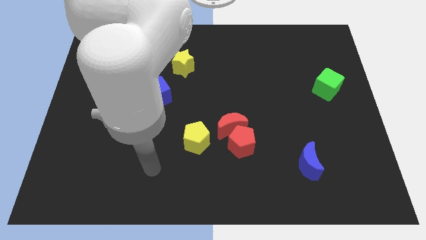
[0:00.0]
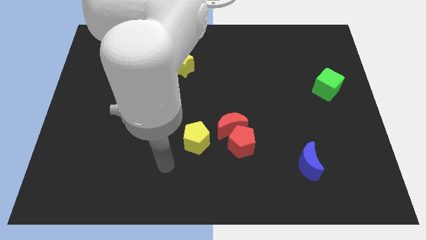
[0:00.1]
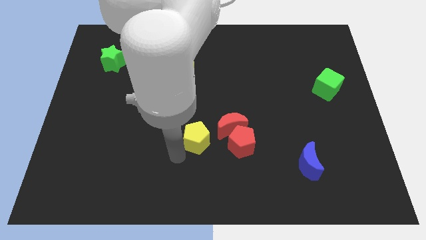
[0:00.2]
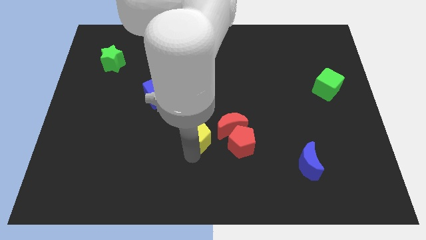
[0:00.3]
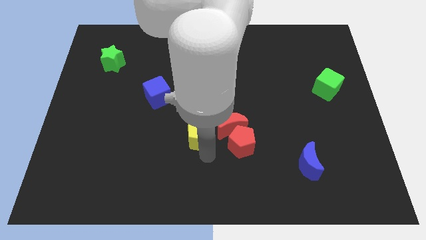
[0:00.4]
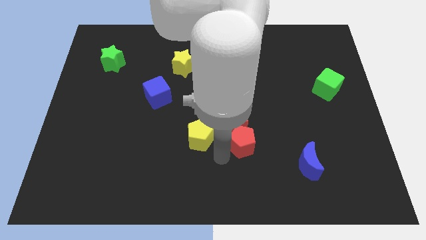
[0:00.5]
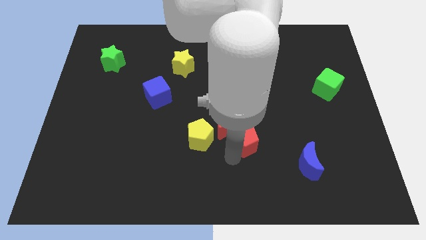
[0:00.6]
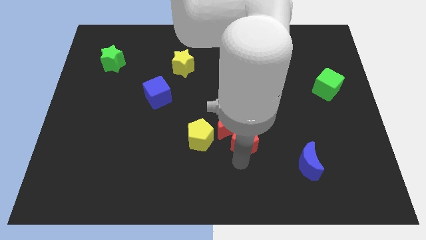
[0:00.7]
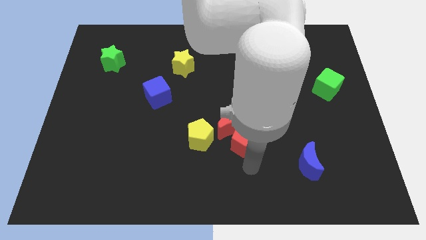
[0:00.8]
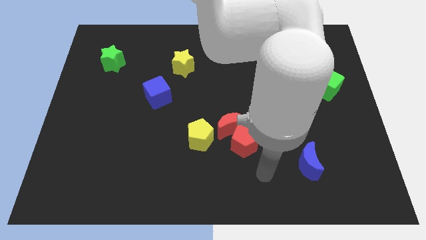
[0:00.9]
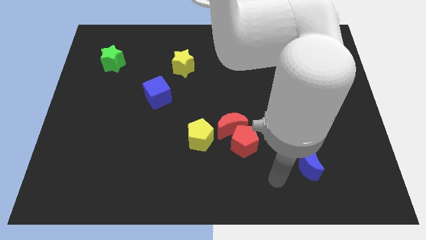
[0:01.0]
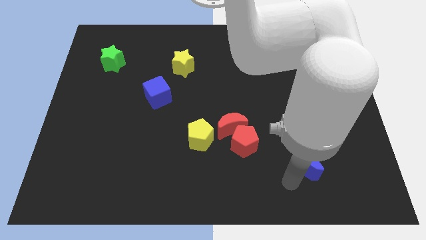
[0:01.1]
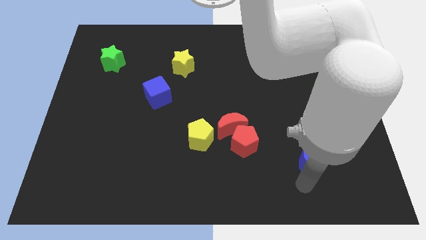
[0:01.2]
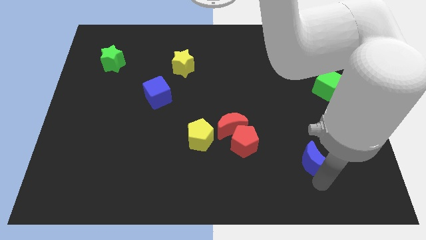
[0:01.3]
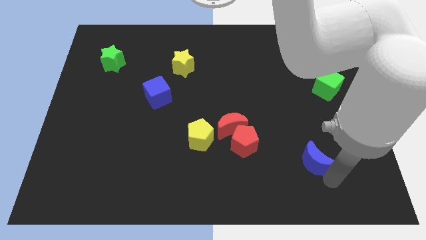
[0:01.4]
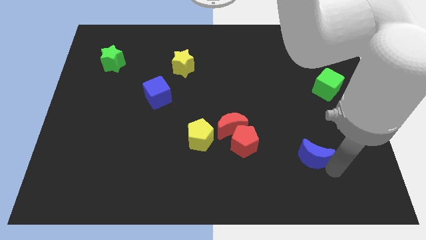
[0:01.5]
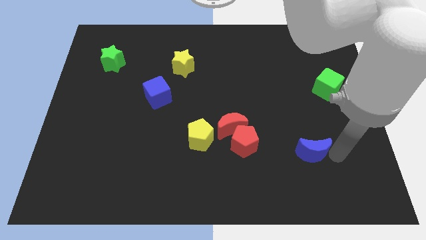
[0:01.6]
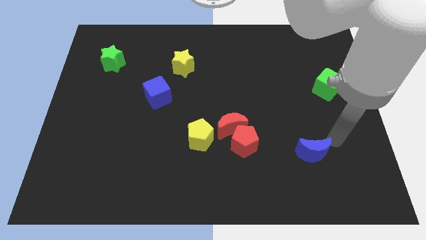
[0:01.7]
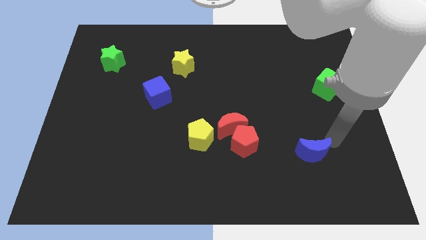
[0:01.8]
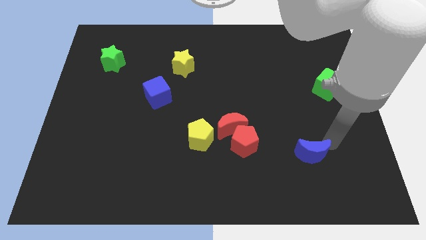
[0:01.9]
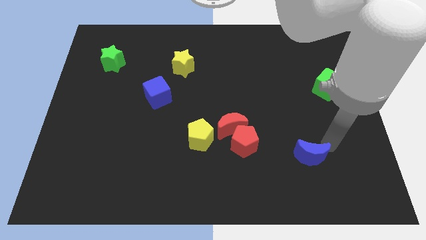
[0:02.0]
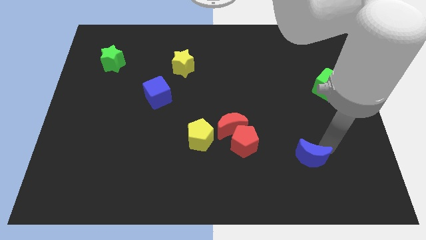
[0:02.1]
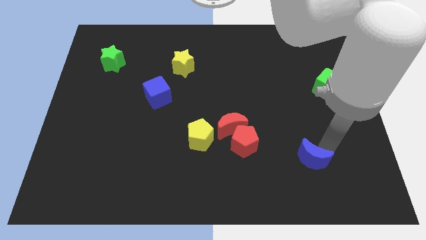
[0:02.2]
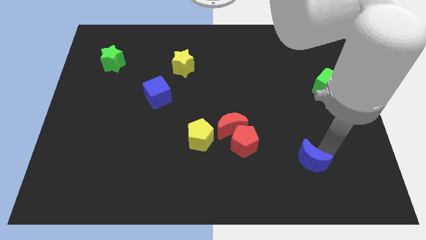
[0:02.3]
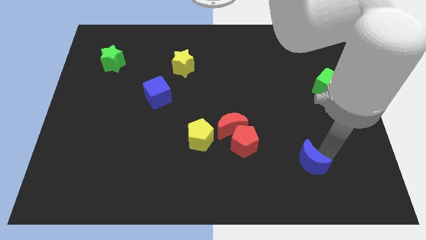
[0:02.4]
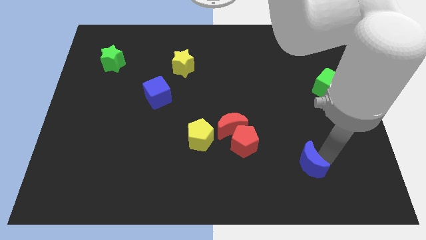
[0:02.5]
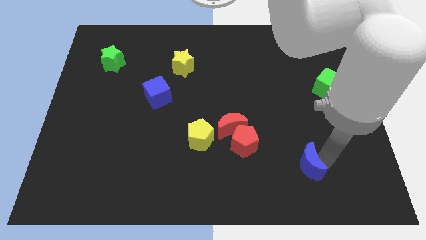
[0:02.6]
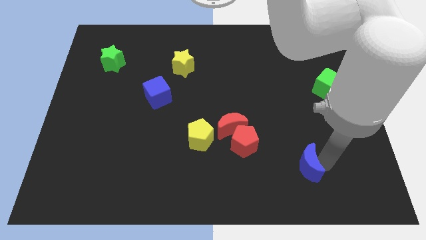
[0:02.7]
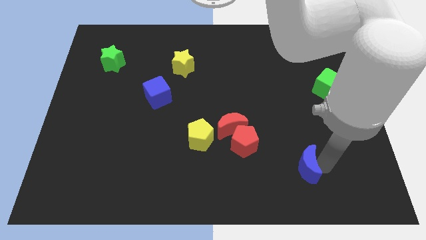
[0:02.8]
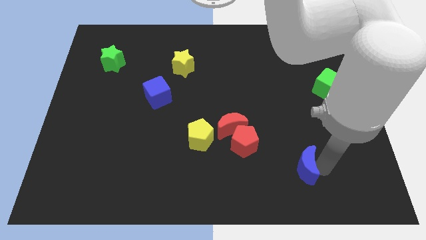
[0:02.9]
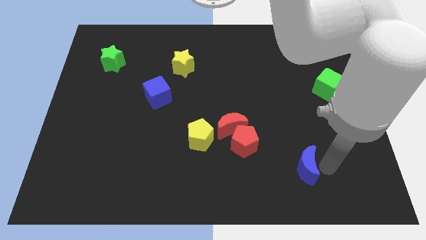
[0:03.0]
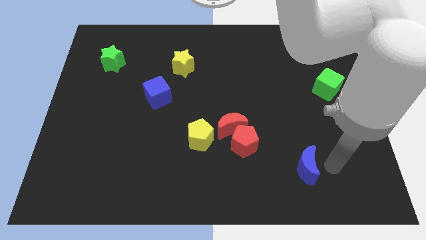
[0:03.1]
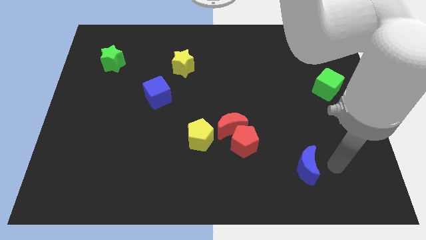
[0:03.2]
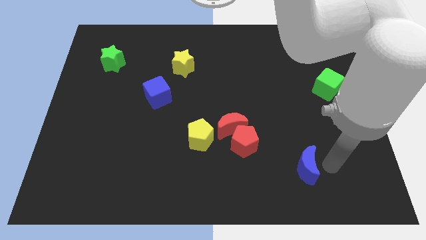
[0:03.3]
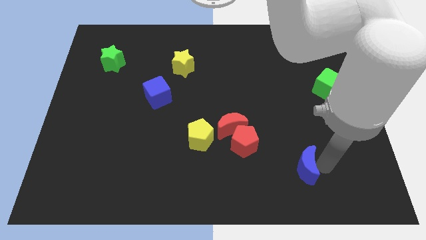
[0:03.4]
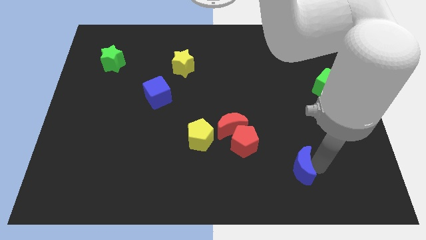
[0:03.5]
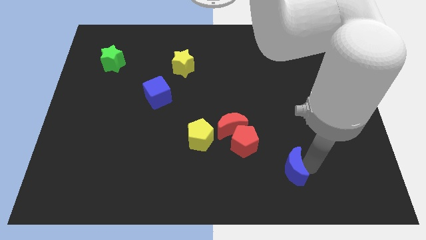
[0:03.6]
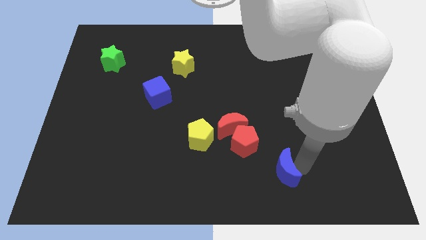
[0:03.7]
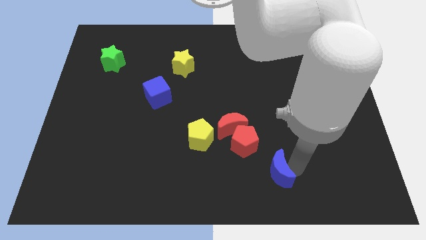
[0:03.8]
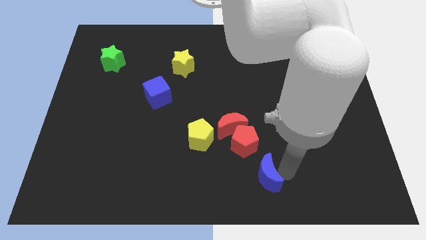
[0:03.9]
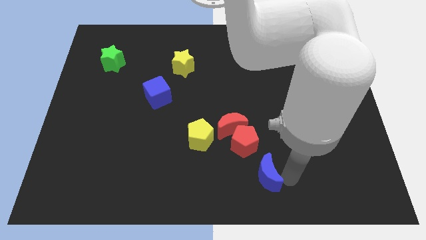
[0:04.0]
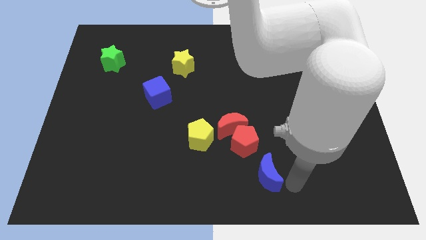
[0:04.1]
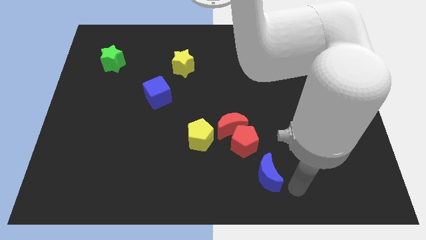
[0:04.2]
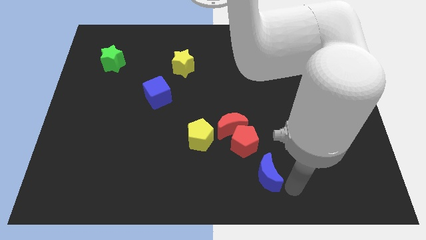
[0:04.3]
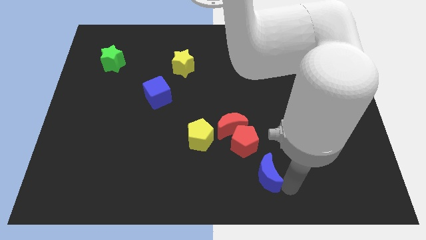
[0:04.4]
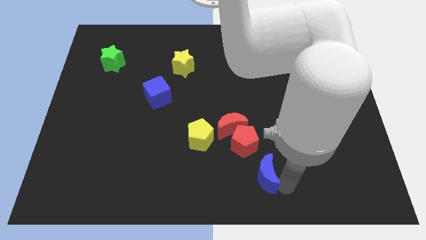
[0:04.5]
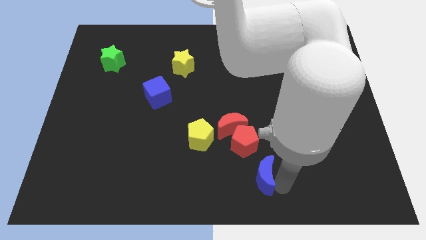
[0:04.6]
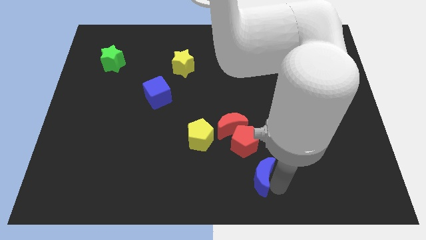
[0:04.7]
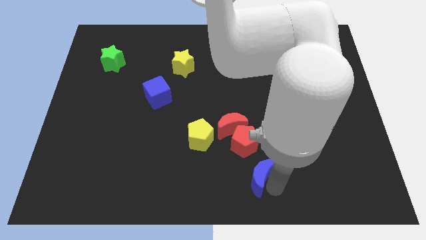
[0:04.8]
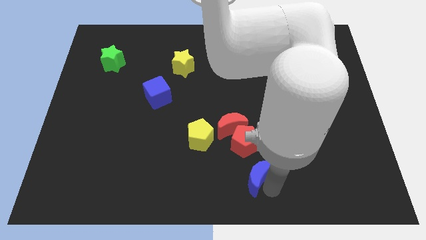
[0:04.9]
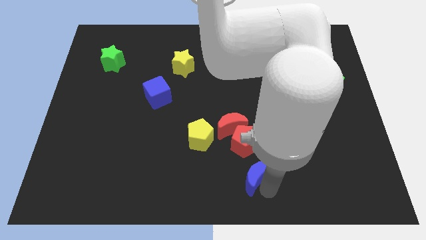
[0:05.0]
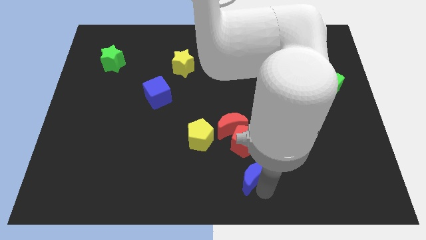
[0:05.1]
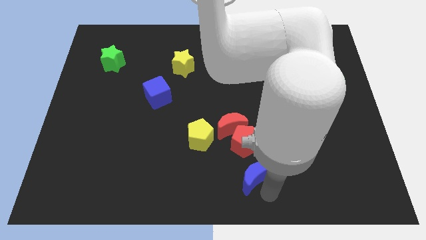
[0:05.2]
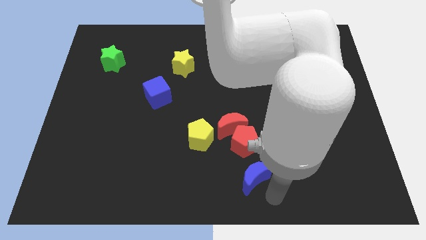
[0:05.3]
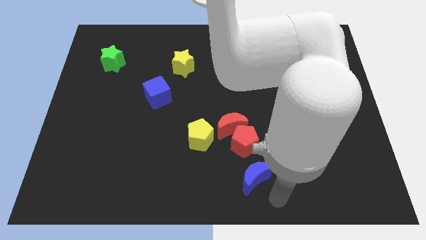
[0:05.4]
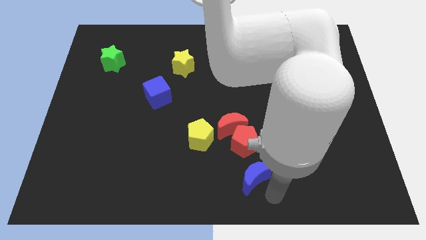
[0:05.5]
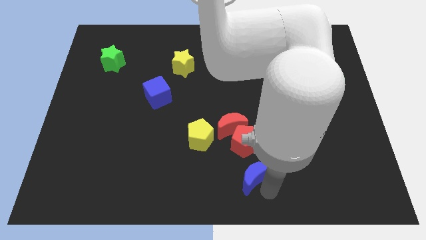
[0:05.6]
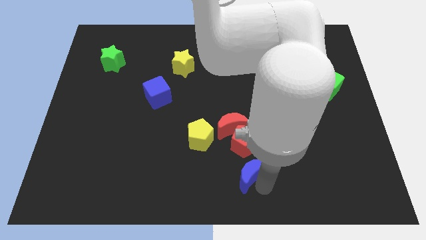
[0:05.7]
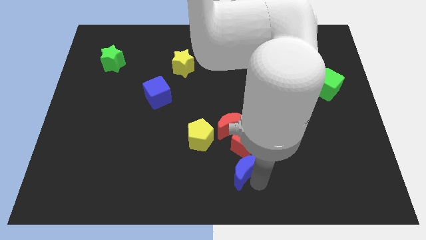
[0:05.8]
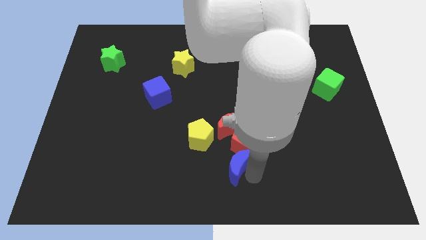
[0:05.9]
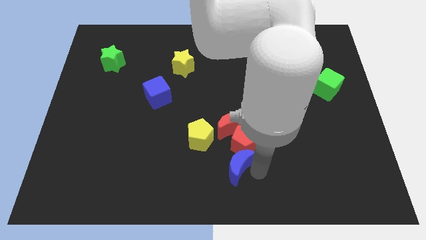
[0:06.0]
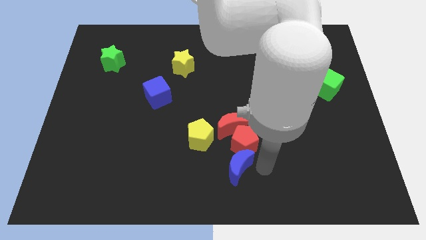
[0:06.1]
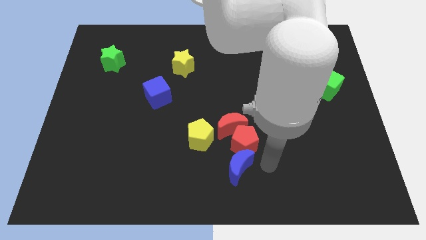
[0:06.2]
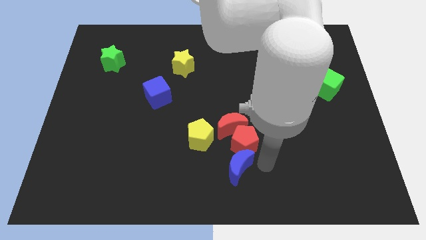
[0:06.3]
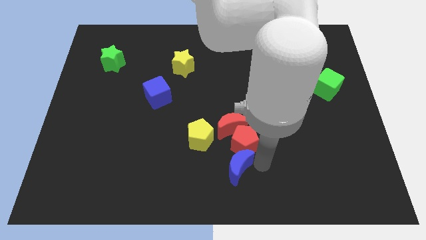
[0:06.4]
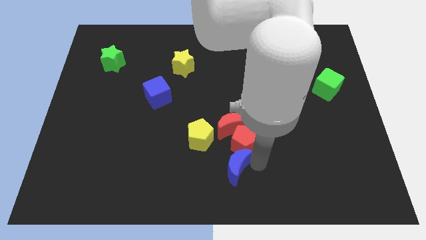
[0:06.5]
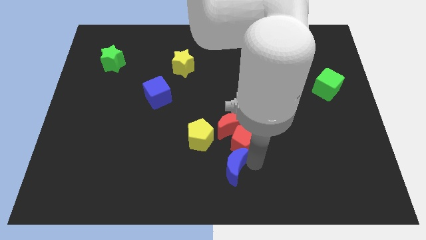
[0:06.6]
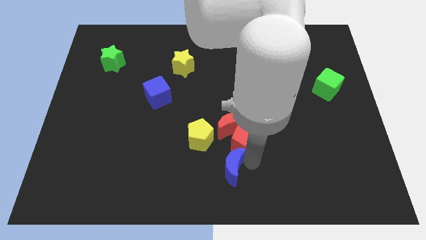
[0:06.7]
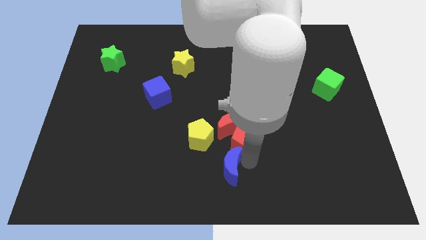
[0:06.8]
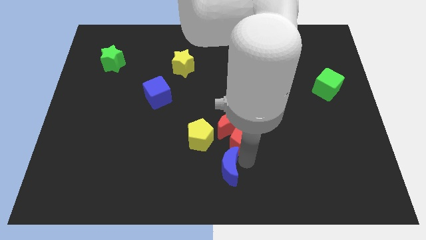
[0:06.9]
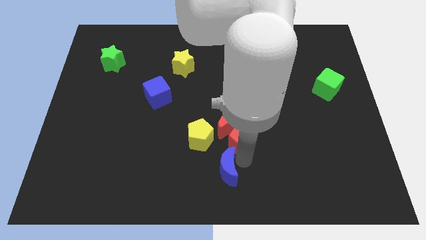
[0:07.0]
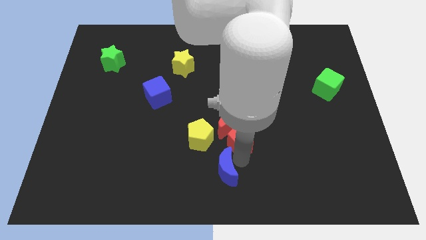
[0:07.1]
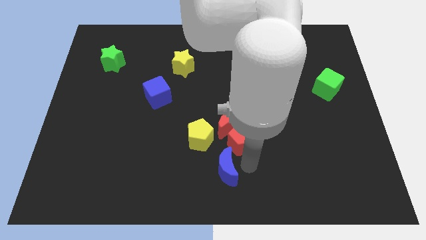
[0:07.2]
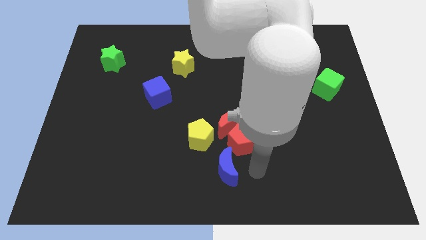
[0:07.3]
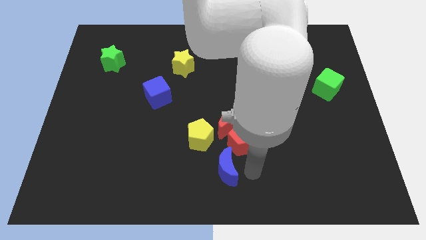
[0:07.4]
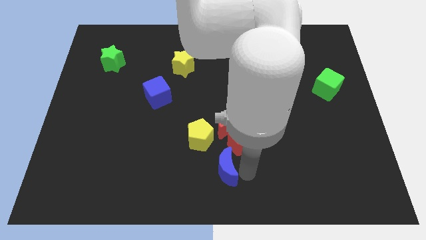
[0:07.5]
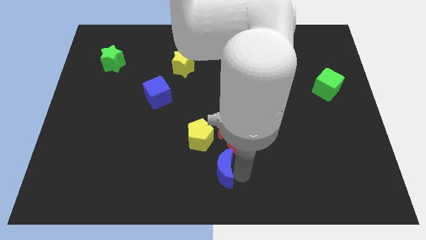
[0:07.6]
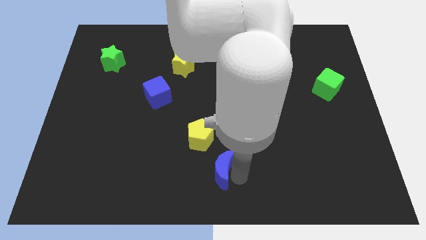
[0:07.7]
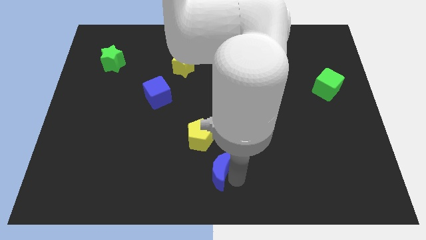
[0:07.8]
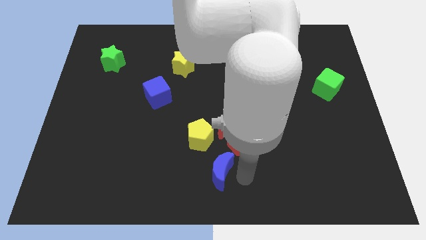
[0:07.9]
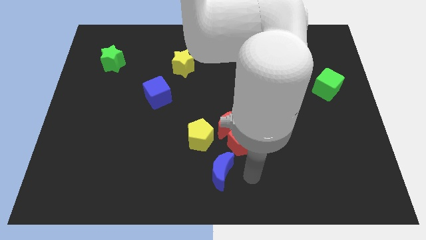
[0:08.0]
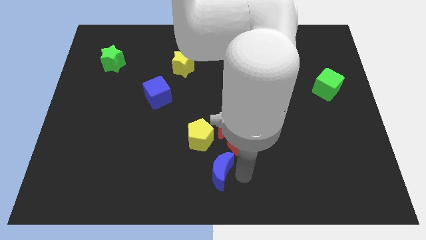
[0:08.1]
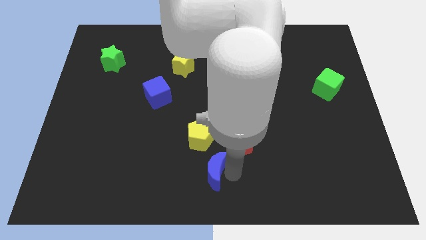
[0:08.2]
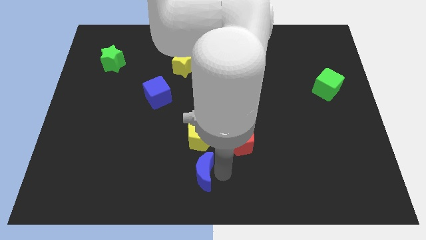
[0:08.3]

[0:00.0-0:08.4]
slide the blue moon to the left
